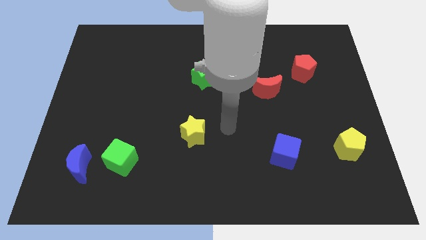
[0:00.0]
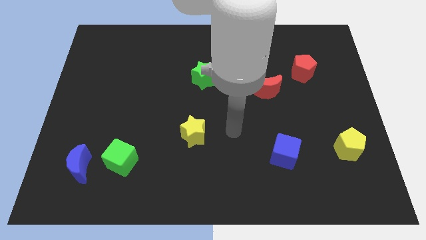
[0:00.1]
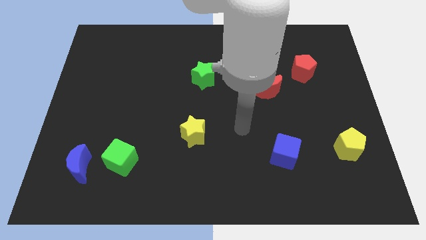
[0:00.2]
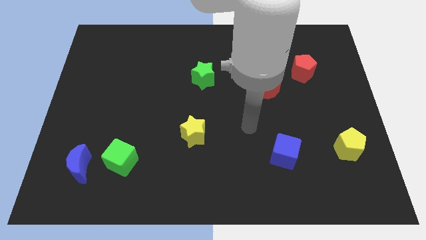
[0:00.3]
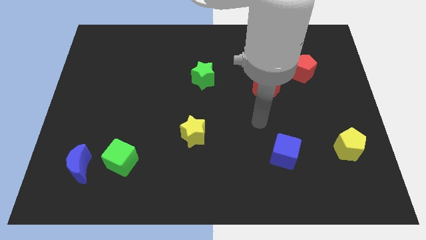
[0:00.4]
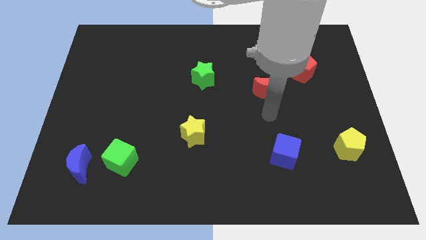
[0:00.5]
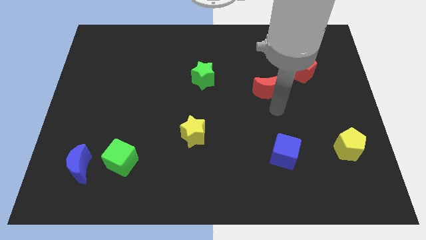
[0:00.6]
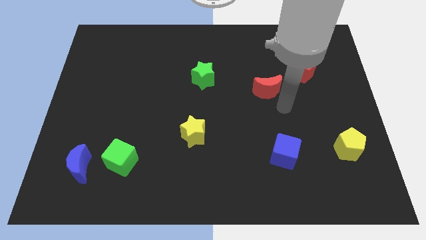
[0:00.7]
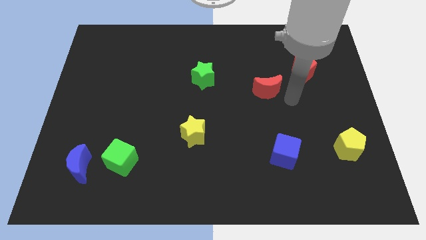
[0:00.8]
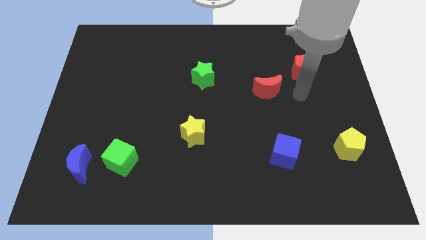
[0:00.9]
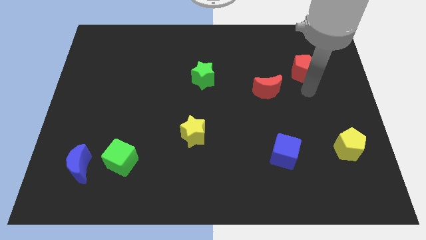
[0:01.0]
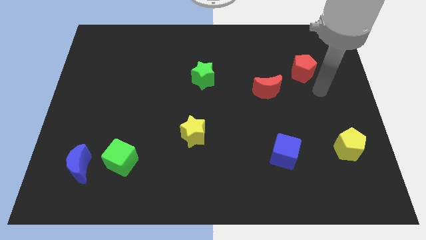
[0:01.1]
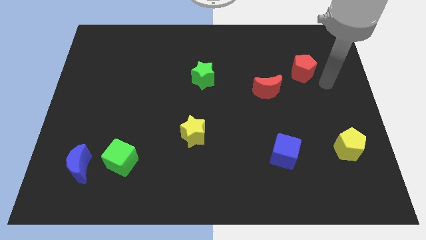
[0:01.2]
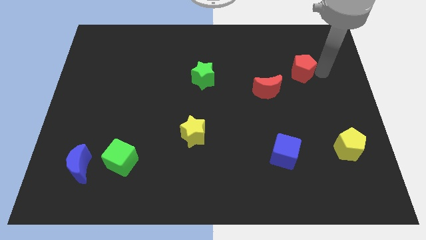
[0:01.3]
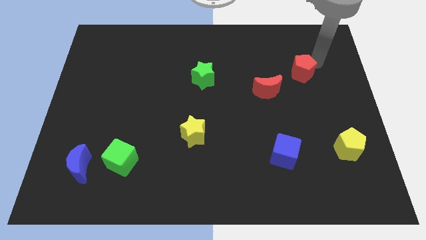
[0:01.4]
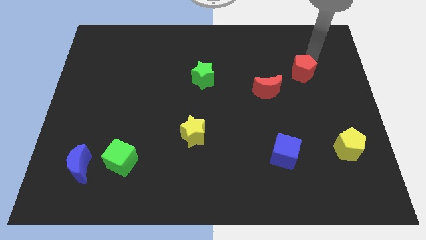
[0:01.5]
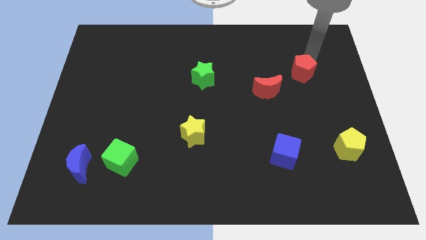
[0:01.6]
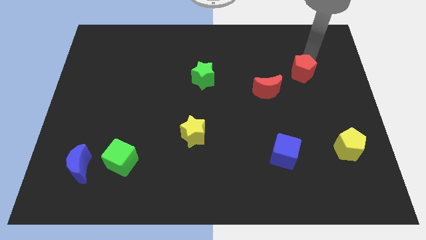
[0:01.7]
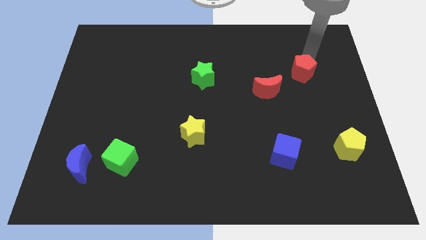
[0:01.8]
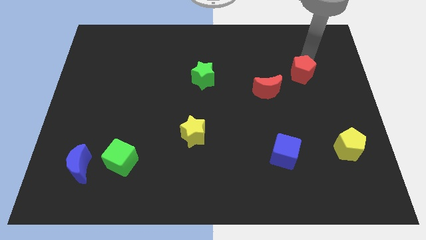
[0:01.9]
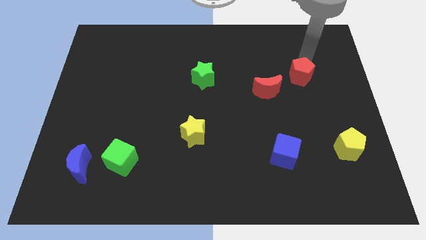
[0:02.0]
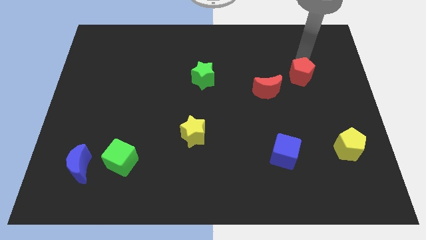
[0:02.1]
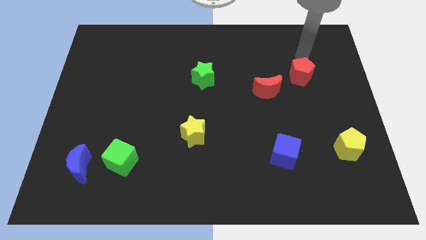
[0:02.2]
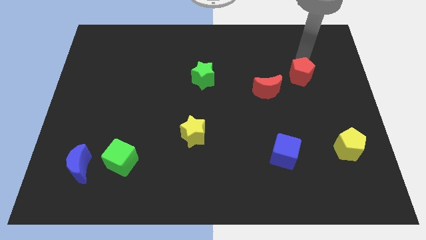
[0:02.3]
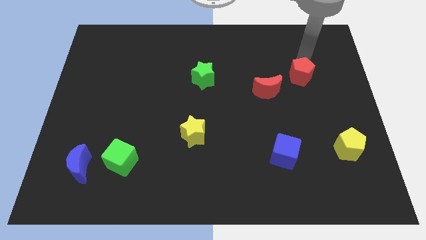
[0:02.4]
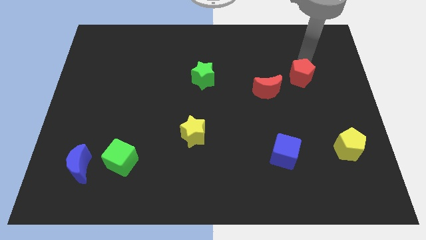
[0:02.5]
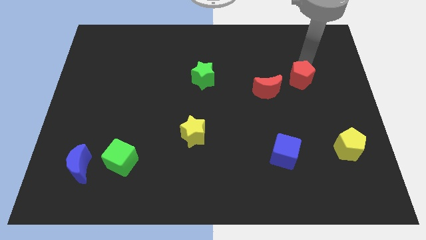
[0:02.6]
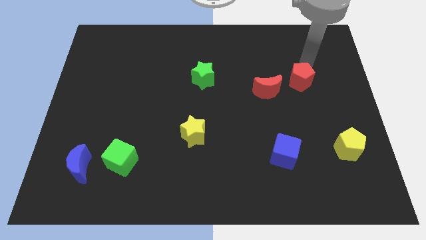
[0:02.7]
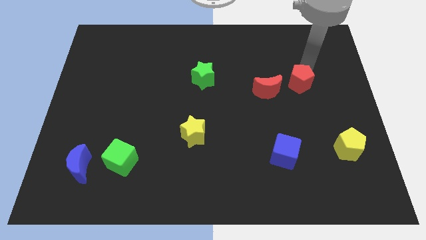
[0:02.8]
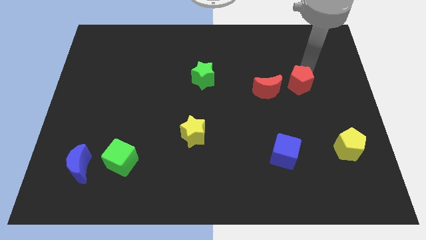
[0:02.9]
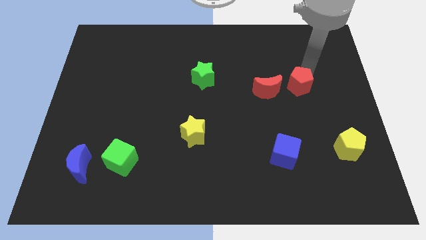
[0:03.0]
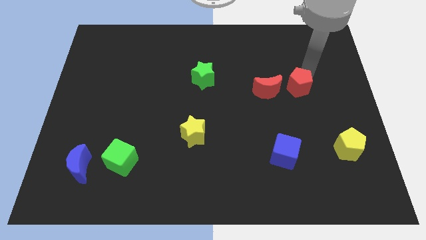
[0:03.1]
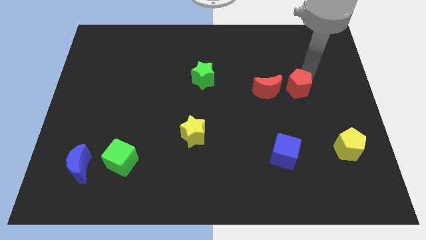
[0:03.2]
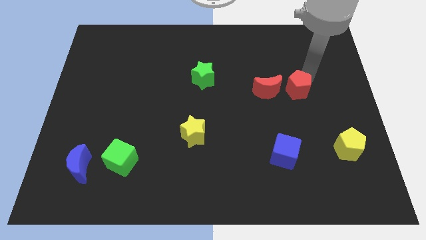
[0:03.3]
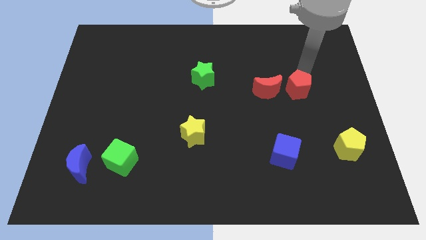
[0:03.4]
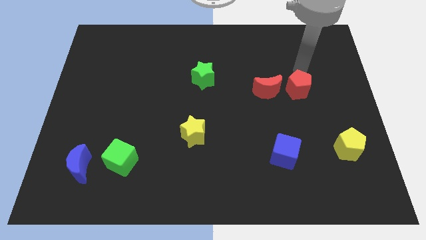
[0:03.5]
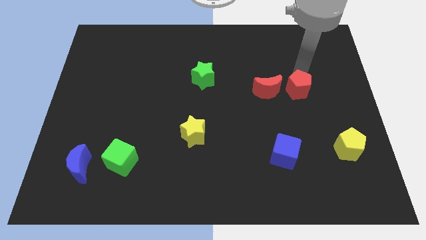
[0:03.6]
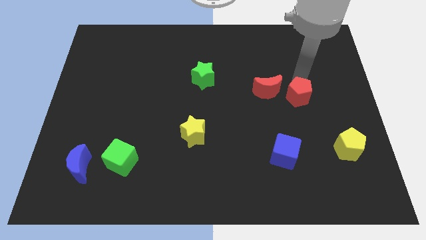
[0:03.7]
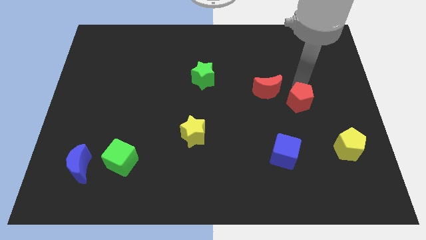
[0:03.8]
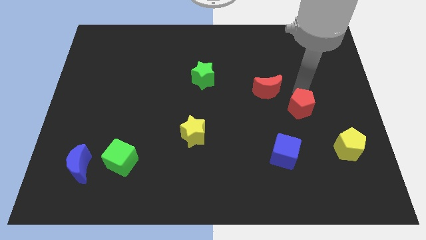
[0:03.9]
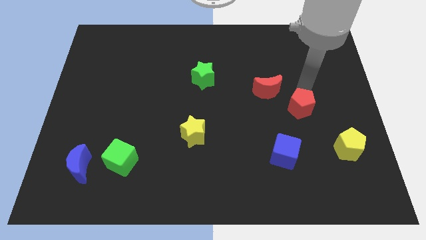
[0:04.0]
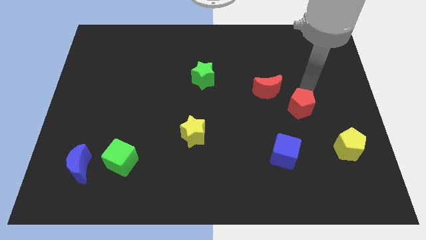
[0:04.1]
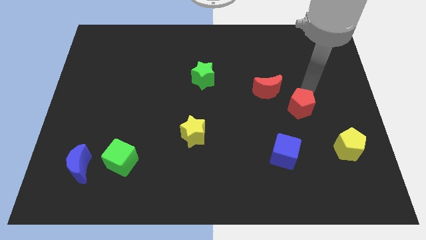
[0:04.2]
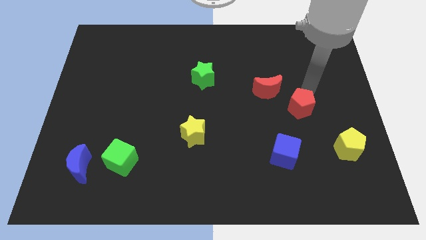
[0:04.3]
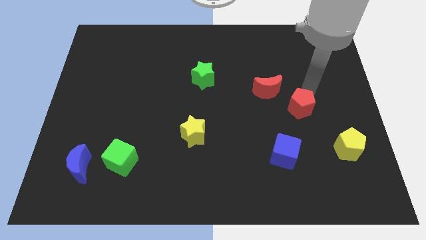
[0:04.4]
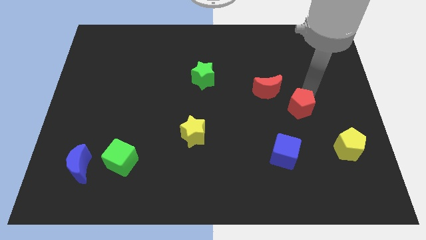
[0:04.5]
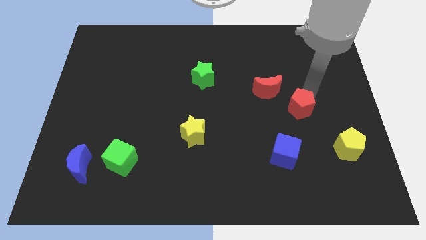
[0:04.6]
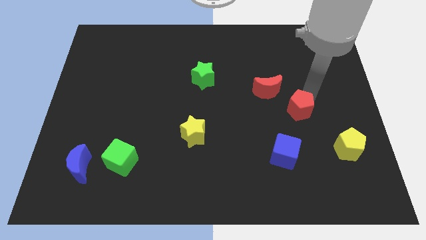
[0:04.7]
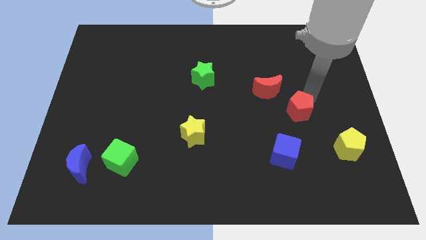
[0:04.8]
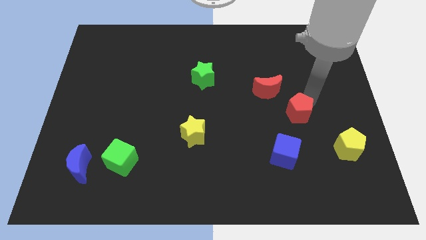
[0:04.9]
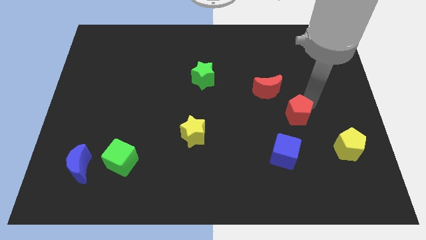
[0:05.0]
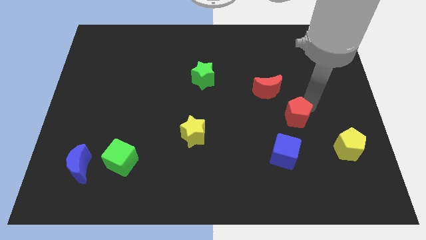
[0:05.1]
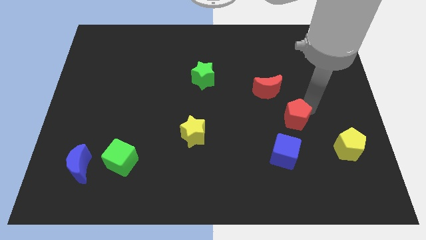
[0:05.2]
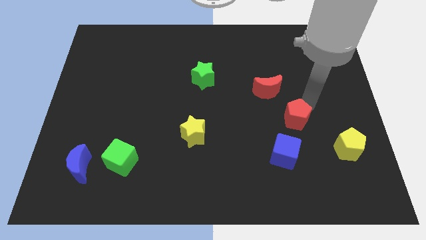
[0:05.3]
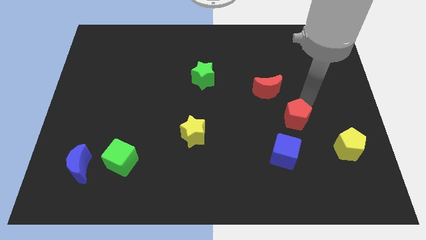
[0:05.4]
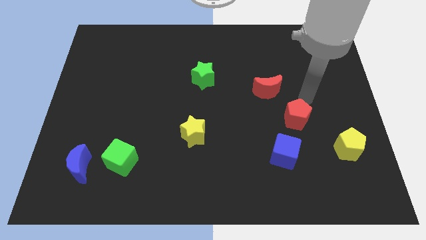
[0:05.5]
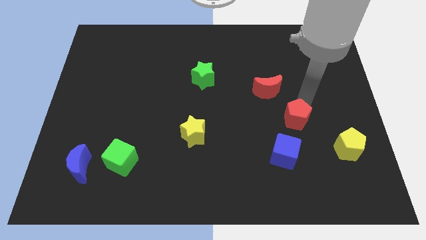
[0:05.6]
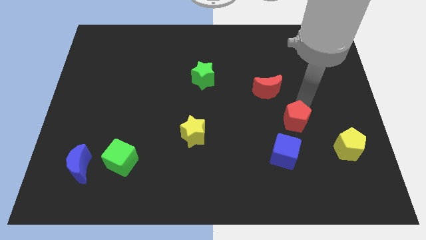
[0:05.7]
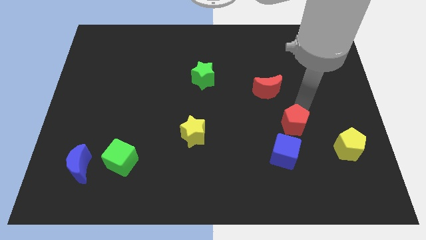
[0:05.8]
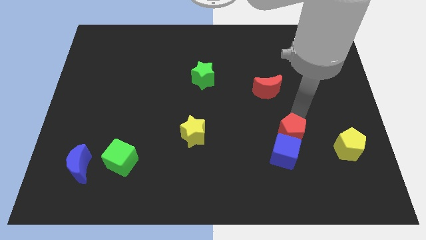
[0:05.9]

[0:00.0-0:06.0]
push the red pentagon next to the blue cube

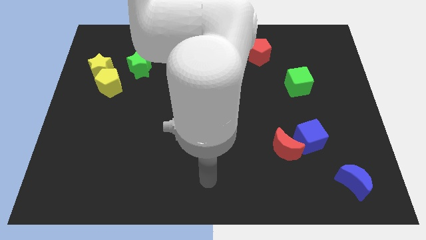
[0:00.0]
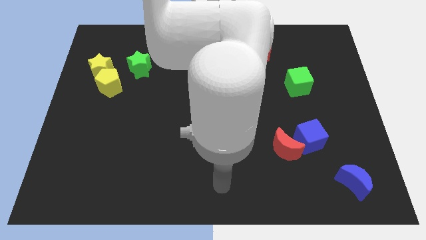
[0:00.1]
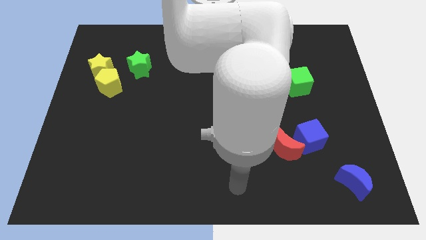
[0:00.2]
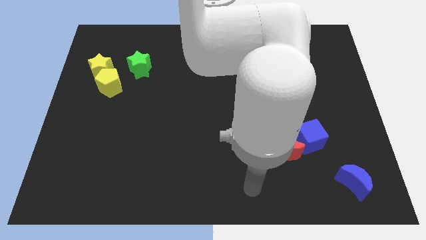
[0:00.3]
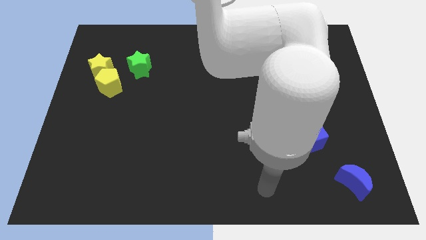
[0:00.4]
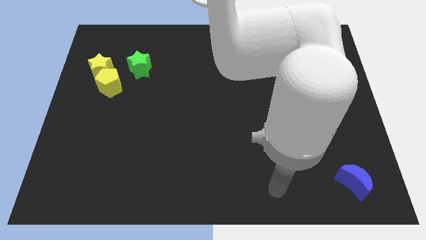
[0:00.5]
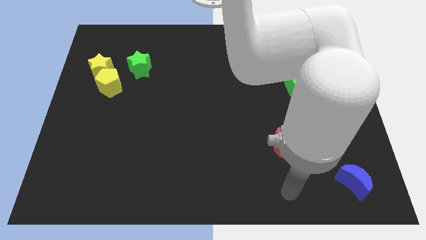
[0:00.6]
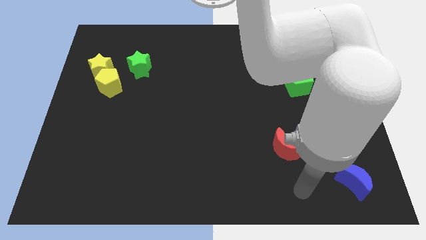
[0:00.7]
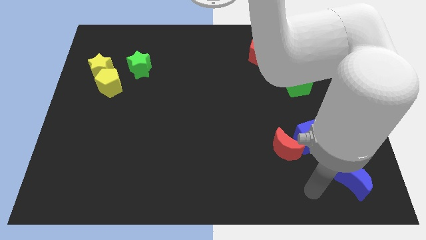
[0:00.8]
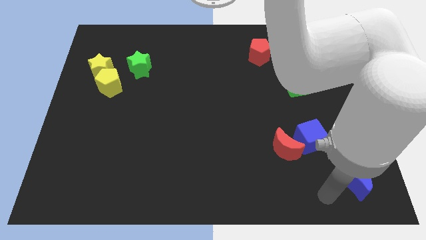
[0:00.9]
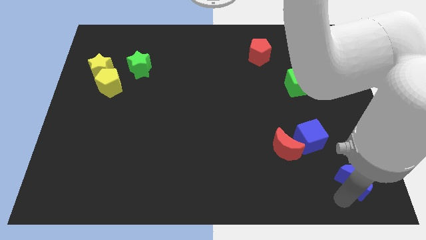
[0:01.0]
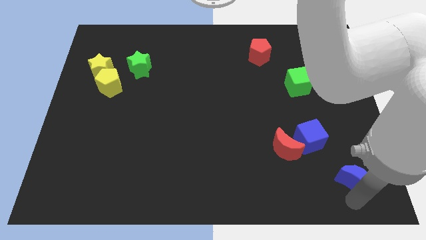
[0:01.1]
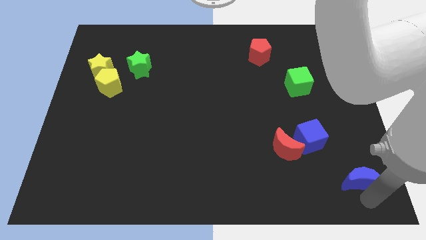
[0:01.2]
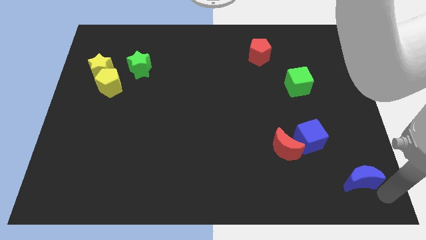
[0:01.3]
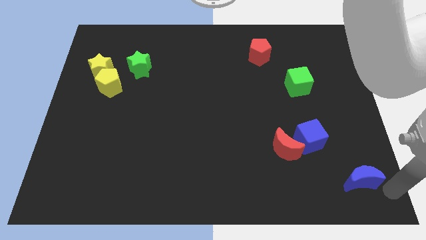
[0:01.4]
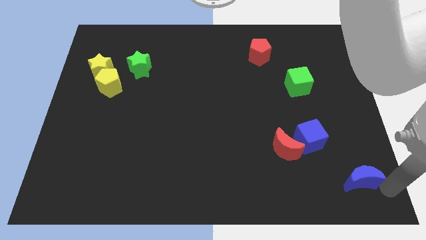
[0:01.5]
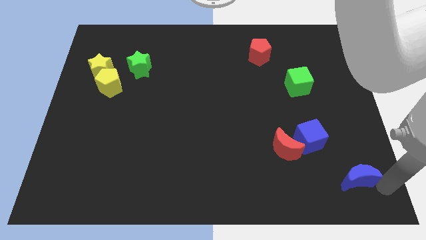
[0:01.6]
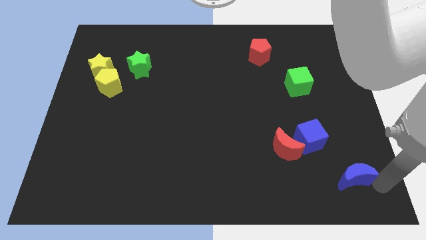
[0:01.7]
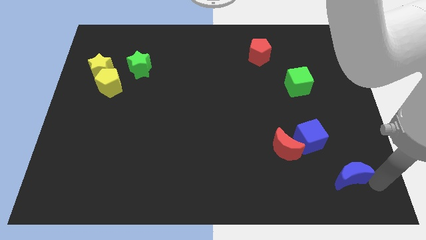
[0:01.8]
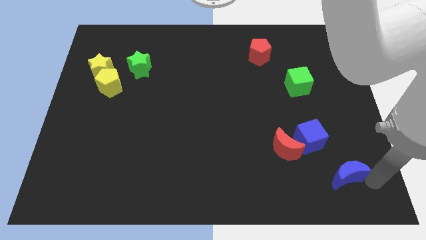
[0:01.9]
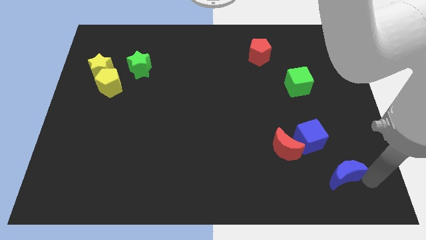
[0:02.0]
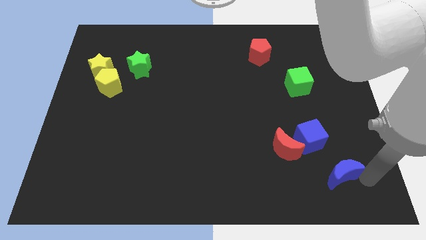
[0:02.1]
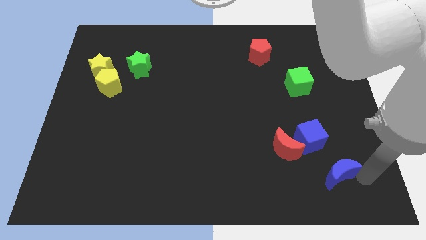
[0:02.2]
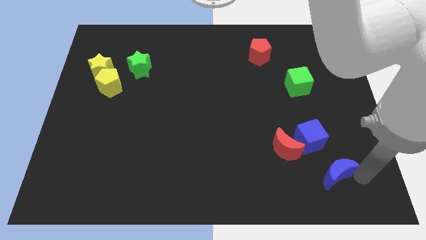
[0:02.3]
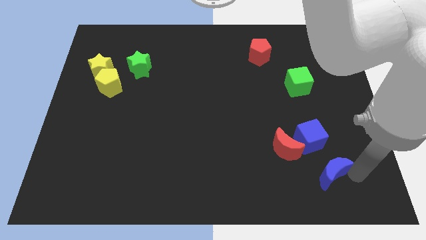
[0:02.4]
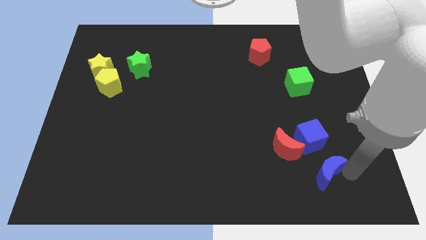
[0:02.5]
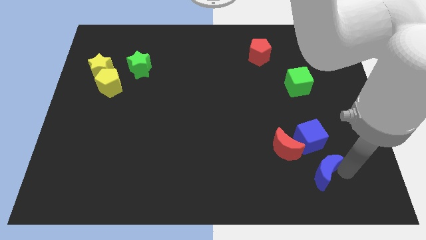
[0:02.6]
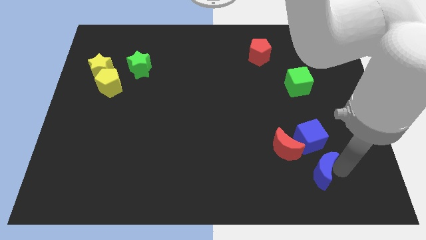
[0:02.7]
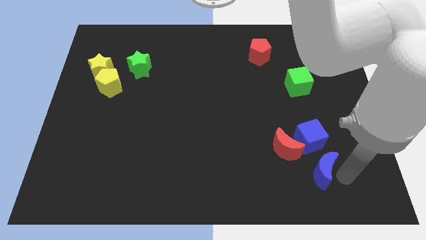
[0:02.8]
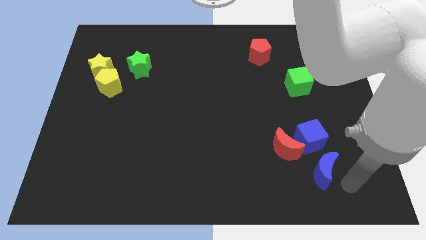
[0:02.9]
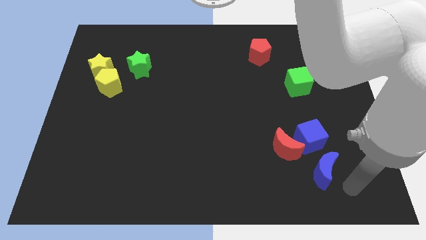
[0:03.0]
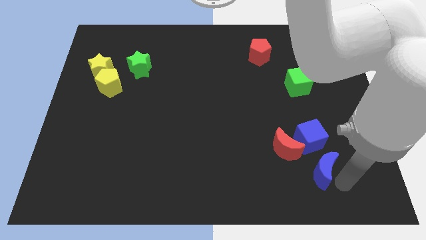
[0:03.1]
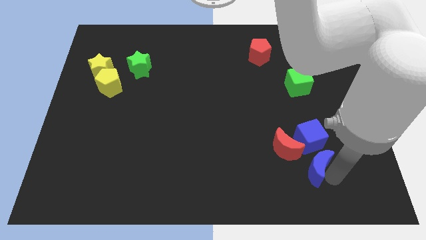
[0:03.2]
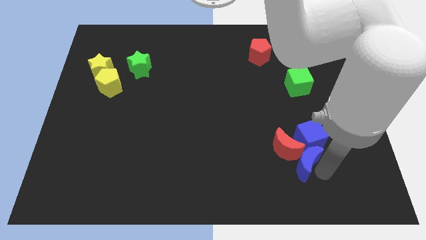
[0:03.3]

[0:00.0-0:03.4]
slide the blue moon close to the red moon
